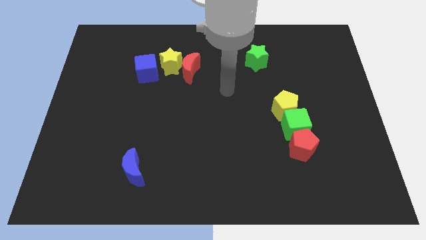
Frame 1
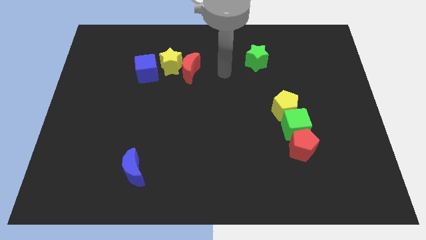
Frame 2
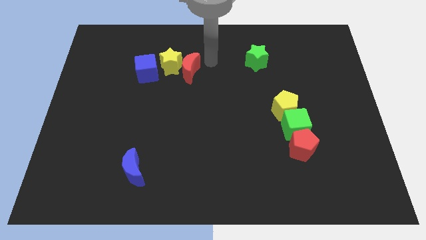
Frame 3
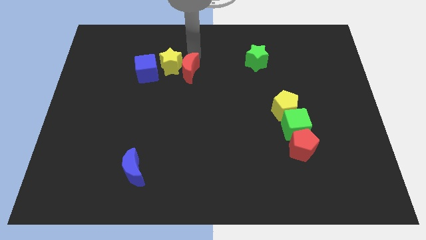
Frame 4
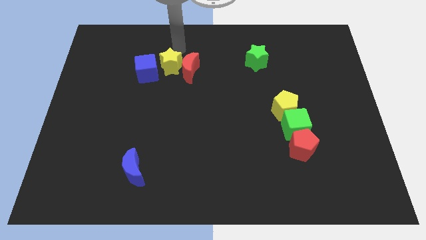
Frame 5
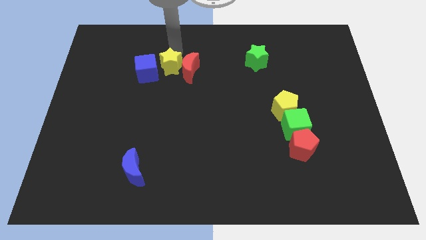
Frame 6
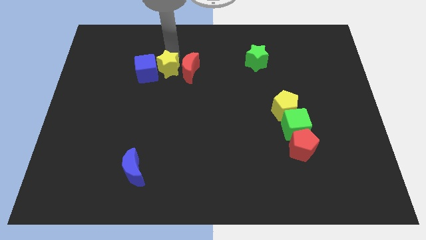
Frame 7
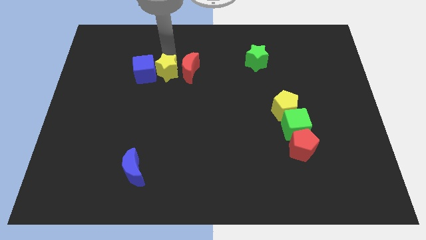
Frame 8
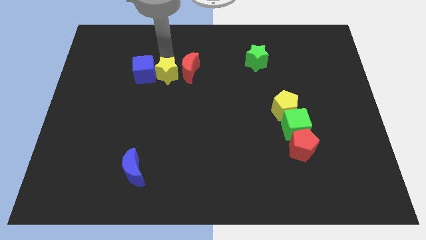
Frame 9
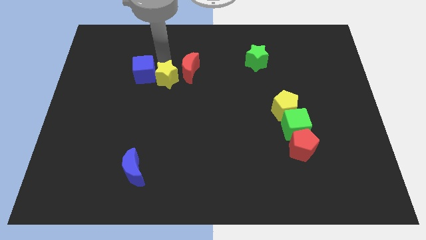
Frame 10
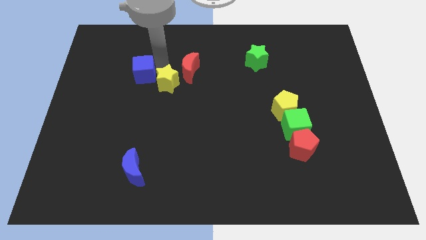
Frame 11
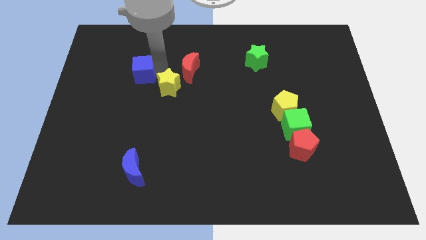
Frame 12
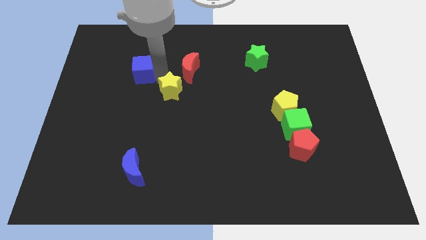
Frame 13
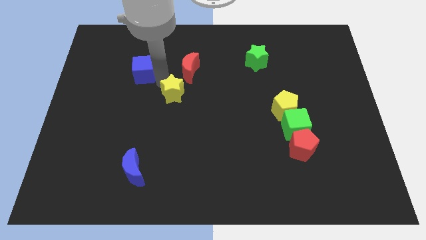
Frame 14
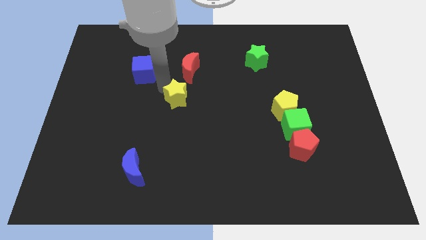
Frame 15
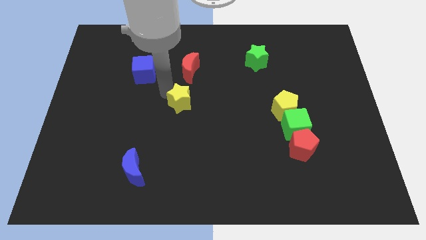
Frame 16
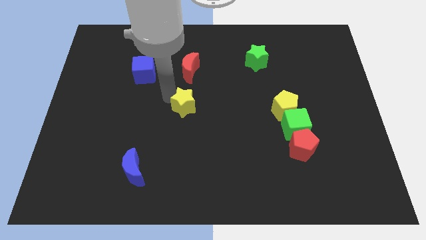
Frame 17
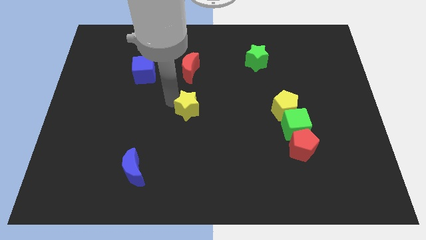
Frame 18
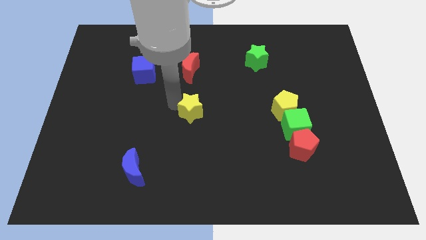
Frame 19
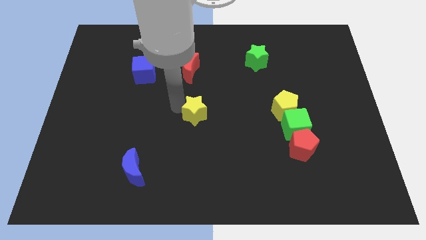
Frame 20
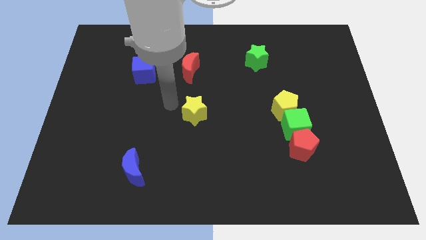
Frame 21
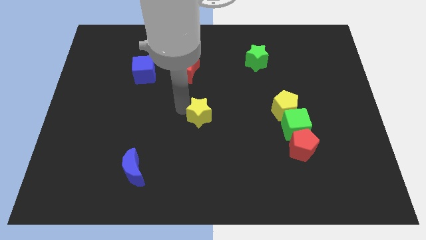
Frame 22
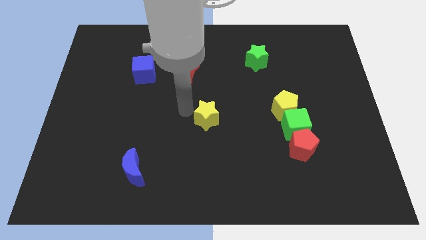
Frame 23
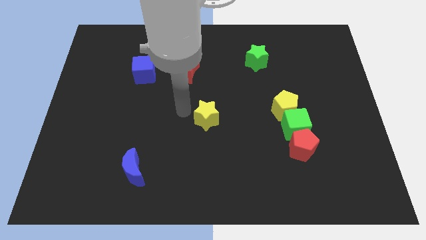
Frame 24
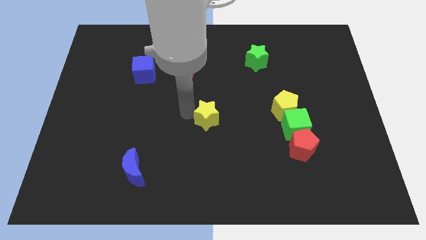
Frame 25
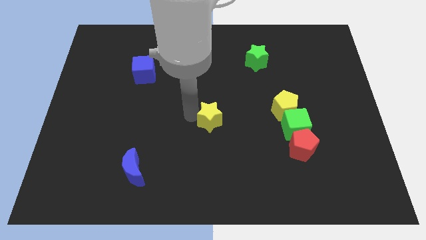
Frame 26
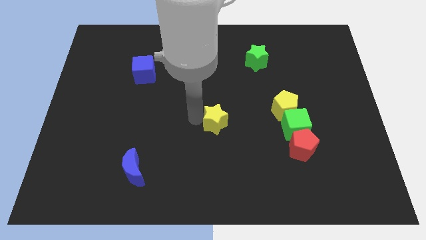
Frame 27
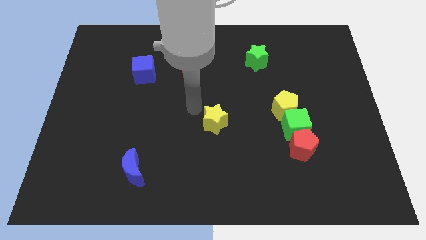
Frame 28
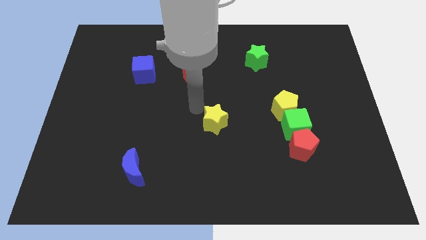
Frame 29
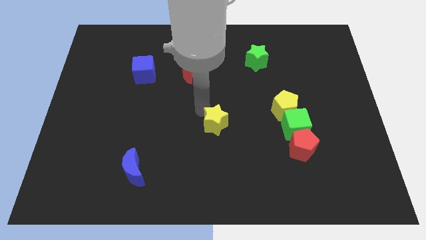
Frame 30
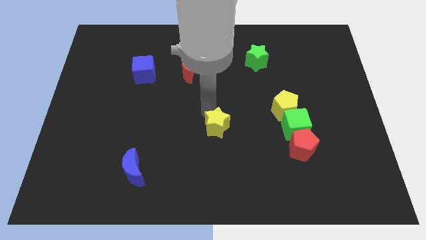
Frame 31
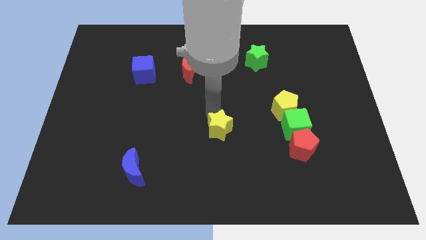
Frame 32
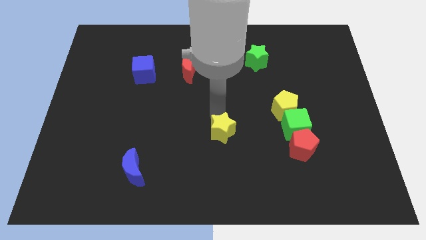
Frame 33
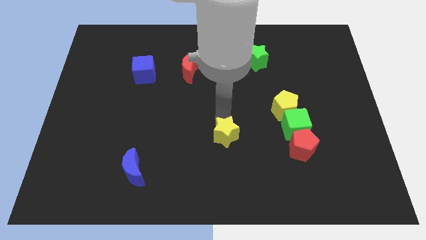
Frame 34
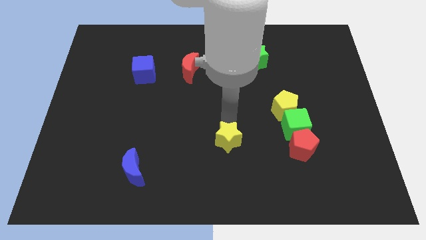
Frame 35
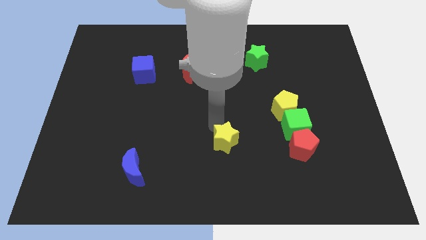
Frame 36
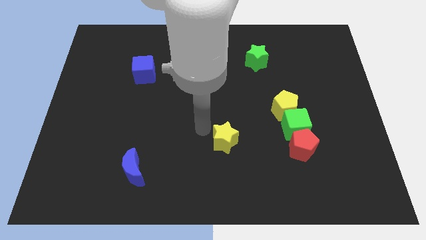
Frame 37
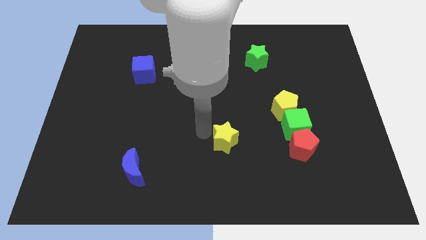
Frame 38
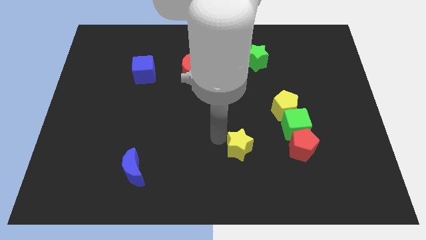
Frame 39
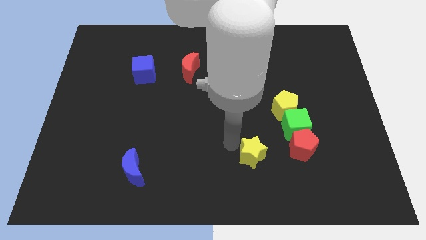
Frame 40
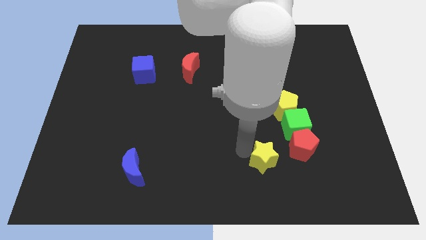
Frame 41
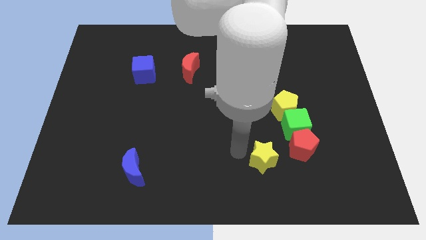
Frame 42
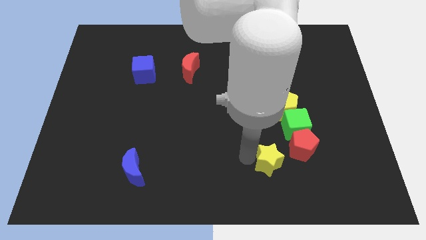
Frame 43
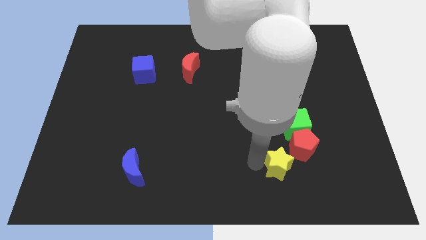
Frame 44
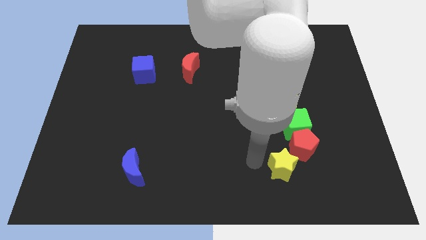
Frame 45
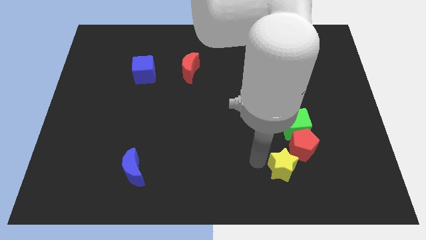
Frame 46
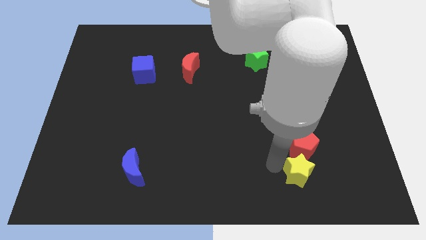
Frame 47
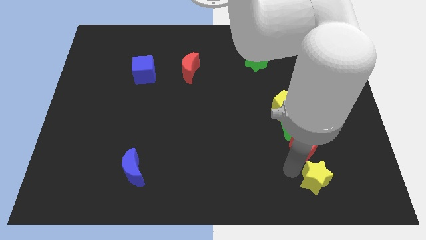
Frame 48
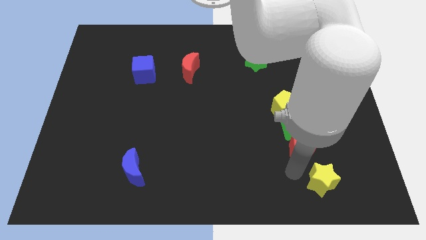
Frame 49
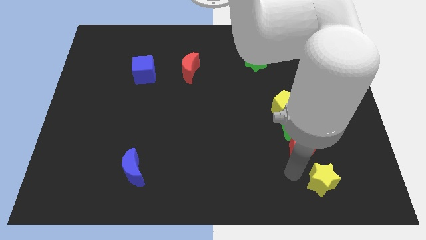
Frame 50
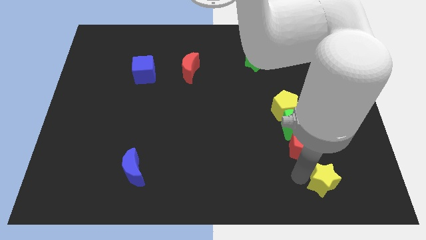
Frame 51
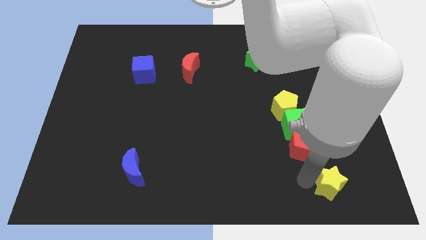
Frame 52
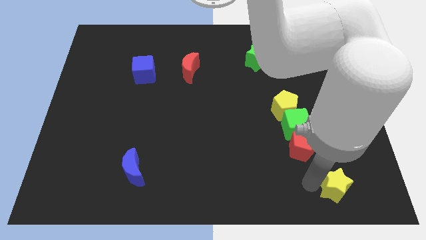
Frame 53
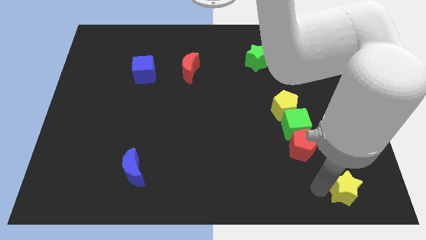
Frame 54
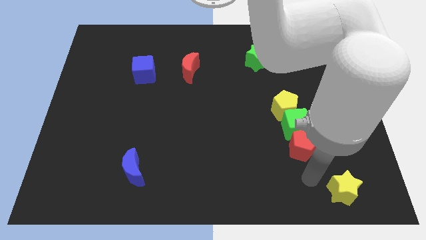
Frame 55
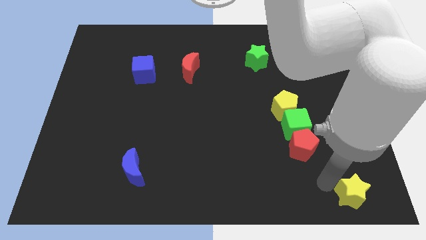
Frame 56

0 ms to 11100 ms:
move the yellow star to the bottom right
